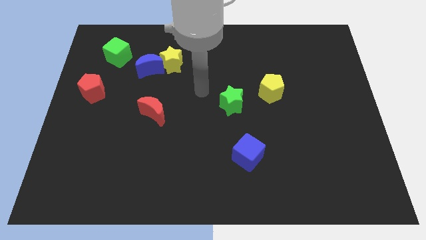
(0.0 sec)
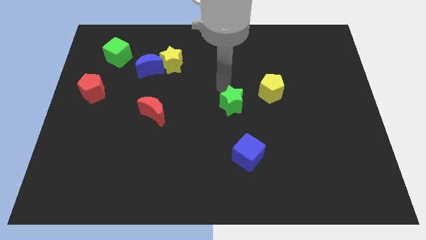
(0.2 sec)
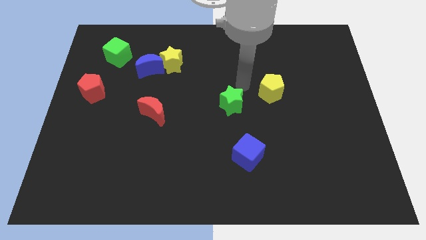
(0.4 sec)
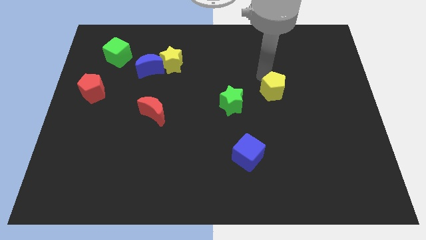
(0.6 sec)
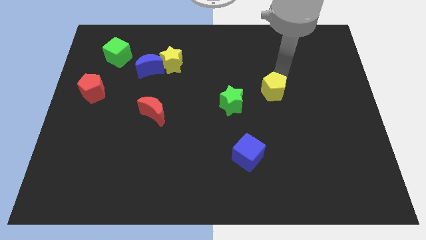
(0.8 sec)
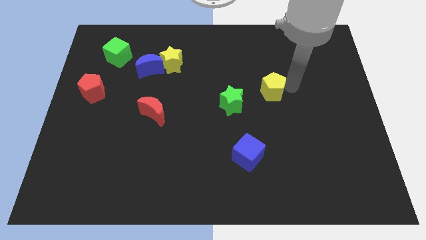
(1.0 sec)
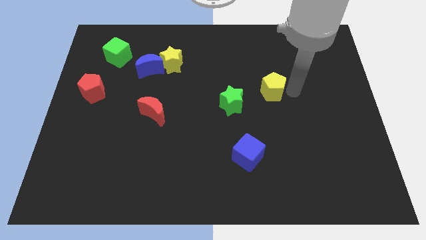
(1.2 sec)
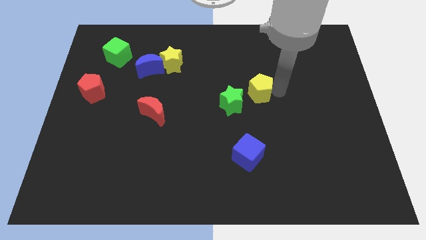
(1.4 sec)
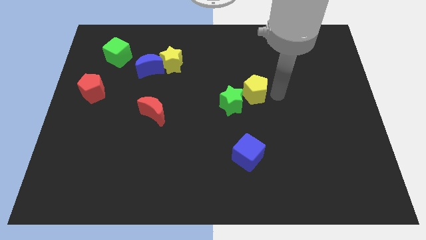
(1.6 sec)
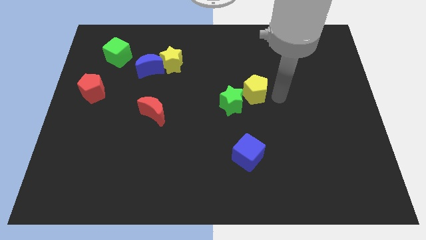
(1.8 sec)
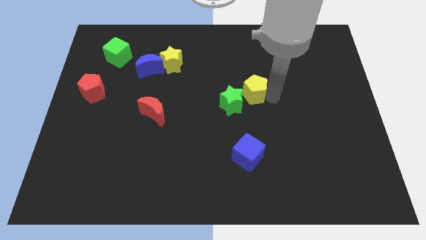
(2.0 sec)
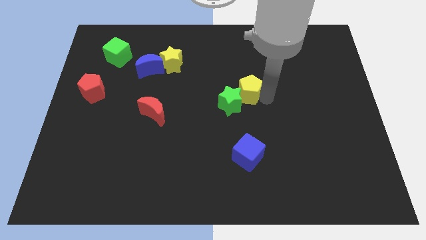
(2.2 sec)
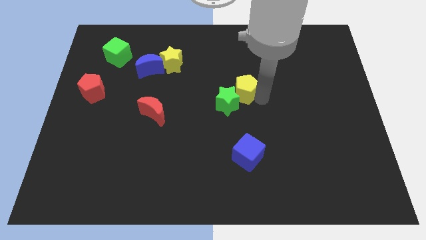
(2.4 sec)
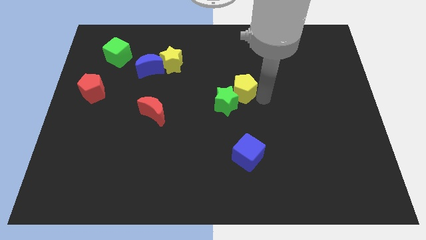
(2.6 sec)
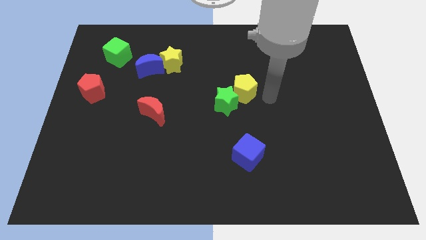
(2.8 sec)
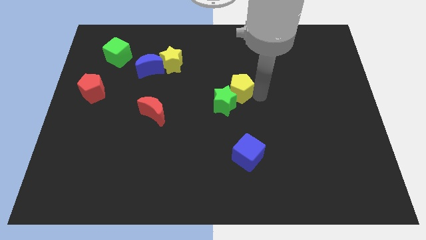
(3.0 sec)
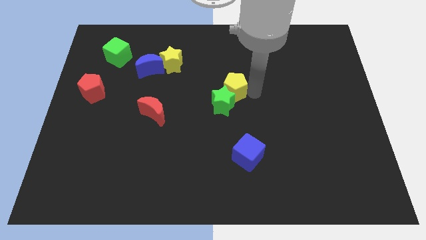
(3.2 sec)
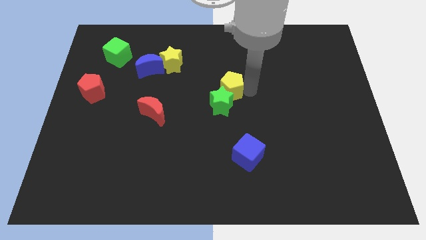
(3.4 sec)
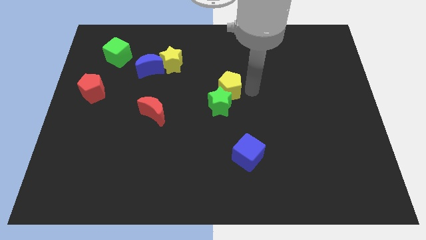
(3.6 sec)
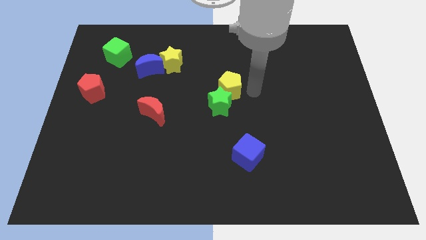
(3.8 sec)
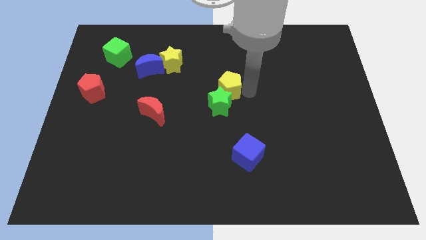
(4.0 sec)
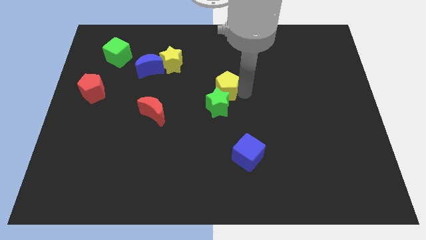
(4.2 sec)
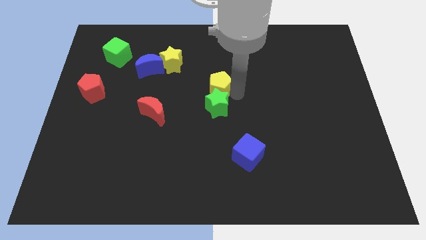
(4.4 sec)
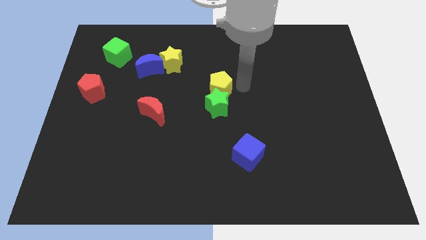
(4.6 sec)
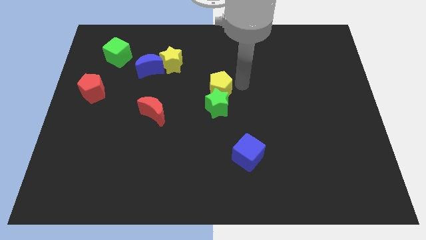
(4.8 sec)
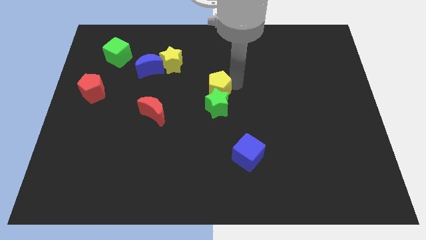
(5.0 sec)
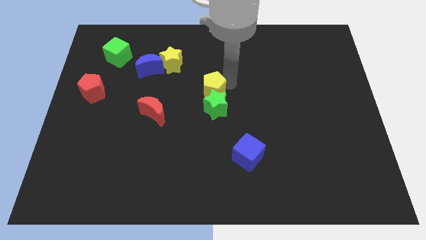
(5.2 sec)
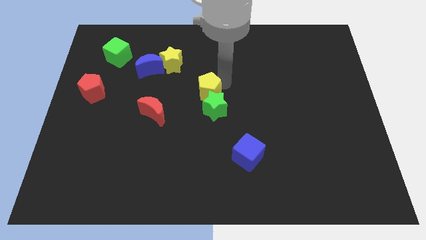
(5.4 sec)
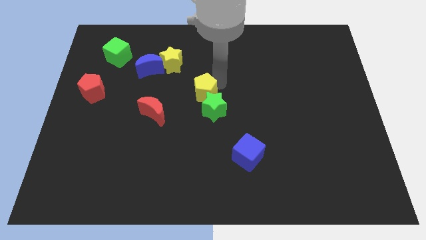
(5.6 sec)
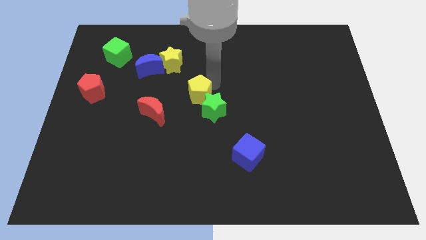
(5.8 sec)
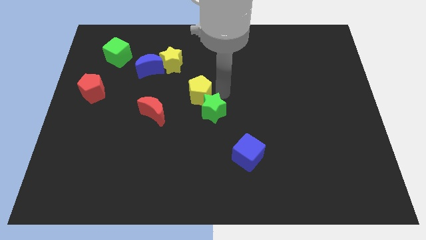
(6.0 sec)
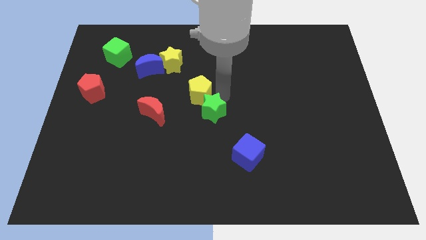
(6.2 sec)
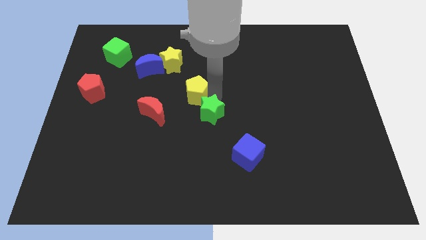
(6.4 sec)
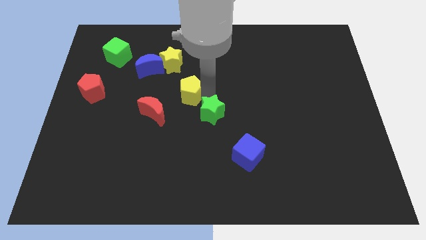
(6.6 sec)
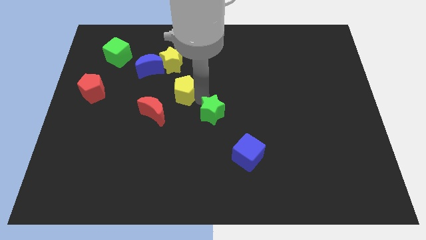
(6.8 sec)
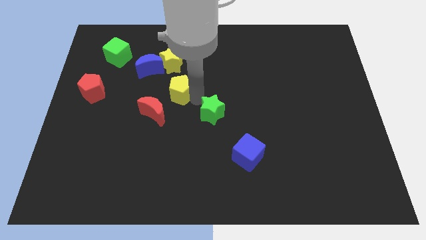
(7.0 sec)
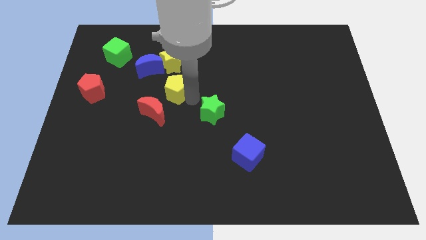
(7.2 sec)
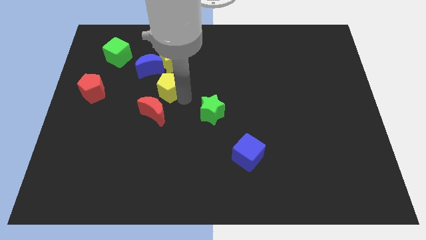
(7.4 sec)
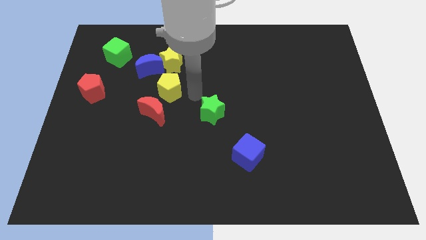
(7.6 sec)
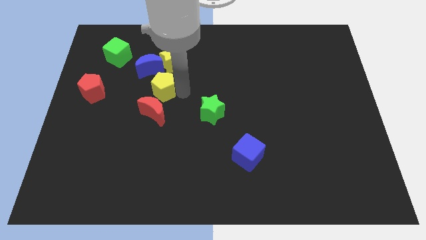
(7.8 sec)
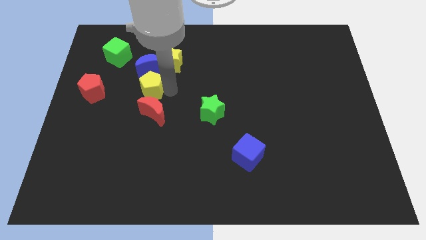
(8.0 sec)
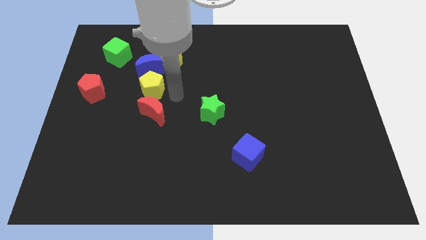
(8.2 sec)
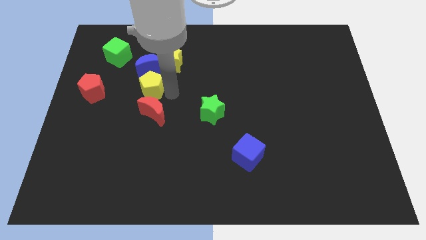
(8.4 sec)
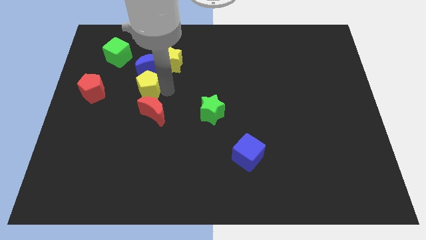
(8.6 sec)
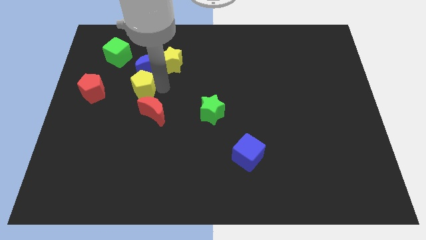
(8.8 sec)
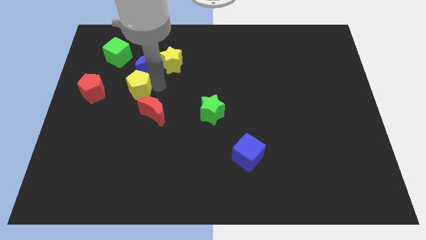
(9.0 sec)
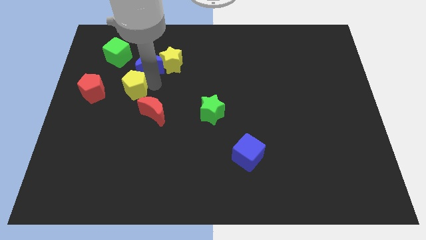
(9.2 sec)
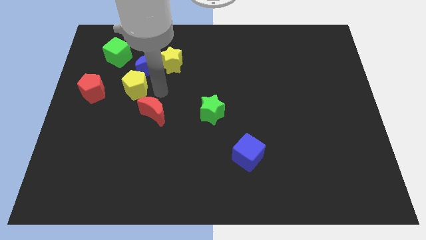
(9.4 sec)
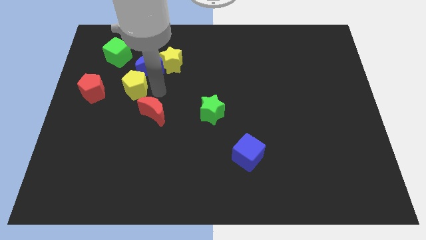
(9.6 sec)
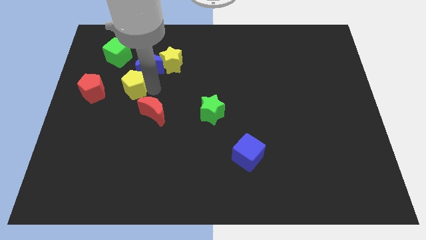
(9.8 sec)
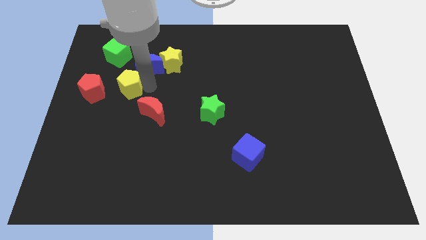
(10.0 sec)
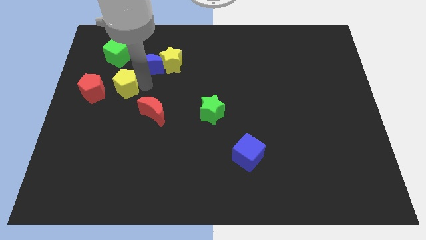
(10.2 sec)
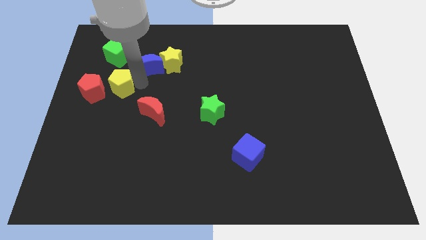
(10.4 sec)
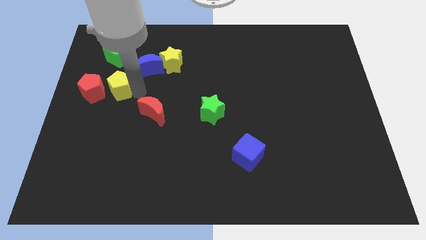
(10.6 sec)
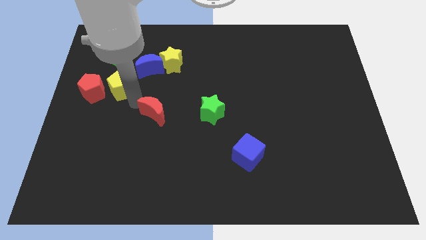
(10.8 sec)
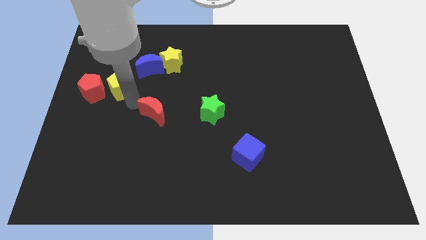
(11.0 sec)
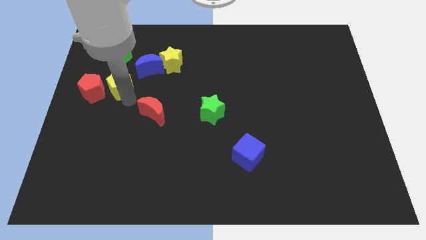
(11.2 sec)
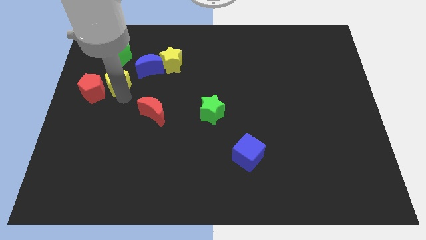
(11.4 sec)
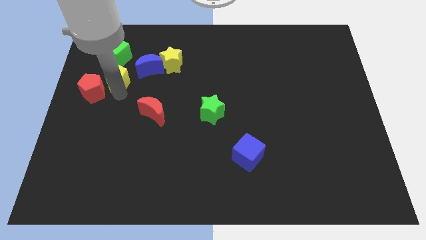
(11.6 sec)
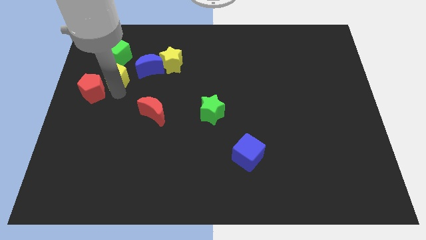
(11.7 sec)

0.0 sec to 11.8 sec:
move the yellow pentagon to the top side of the red pentagon

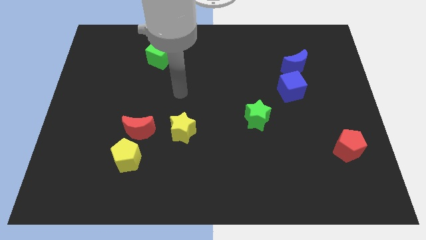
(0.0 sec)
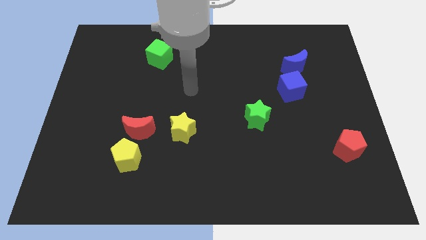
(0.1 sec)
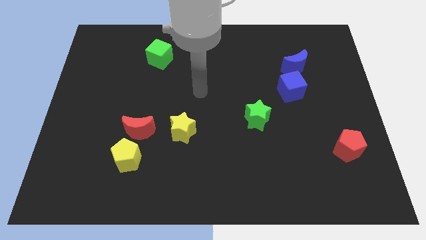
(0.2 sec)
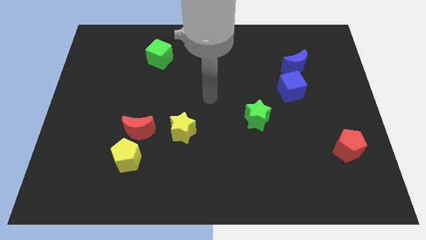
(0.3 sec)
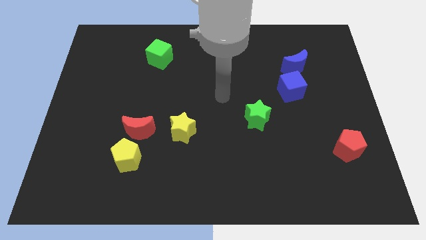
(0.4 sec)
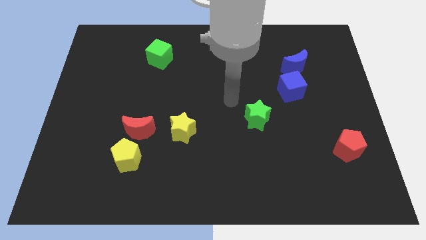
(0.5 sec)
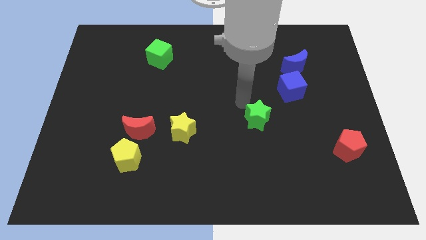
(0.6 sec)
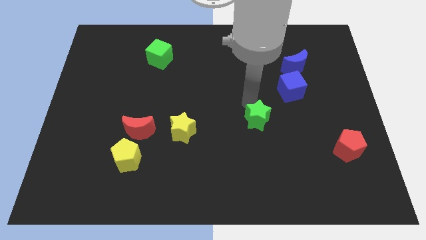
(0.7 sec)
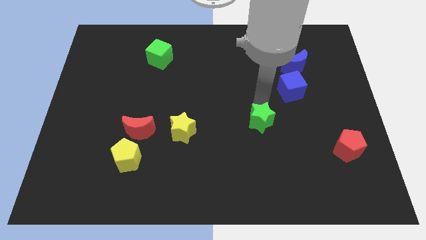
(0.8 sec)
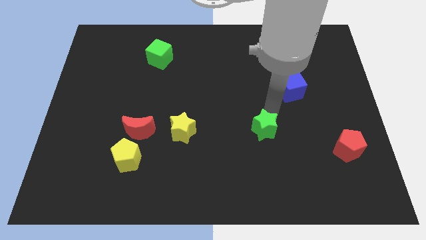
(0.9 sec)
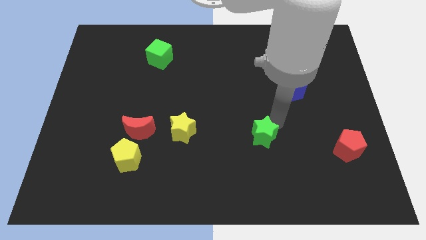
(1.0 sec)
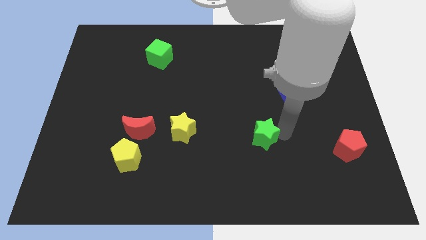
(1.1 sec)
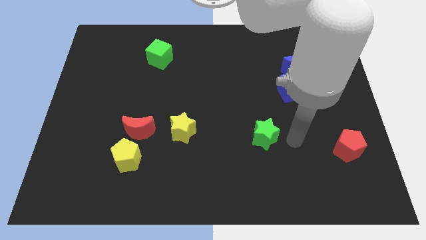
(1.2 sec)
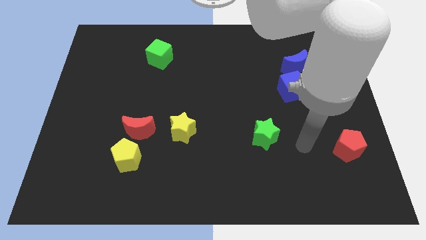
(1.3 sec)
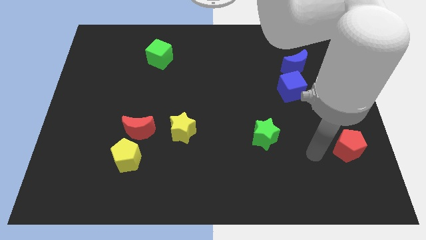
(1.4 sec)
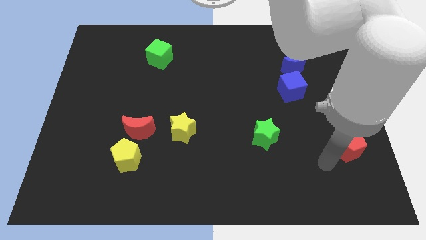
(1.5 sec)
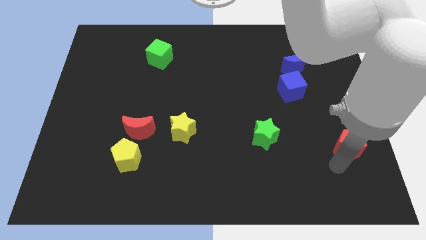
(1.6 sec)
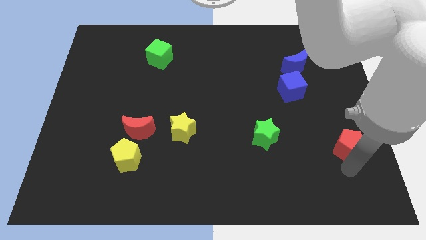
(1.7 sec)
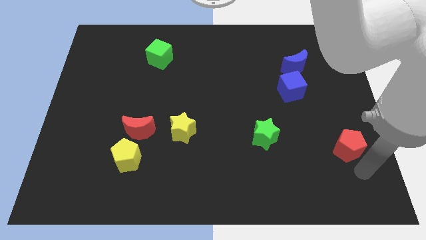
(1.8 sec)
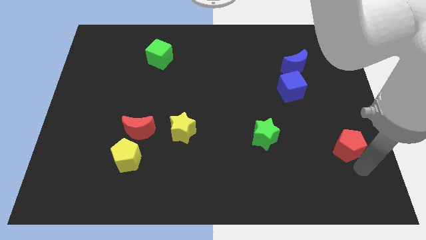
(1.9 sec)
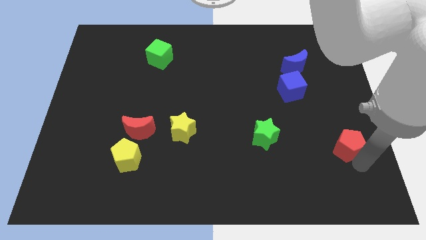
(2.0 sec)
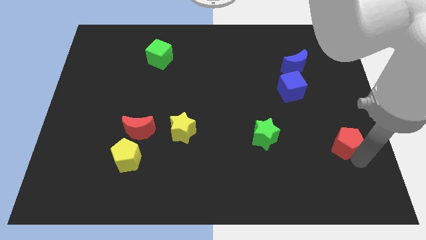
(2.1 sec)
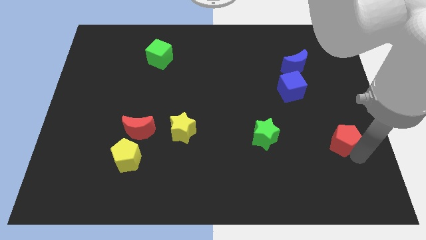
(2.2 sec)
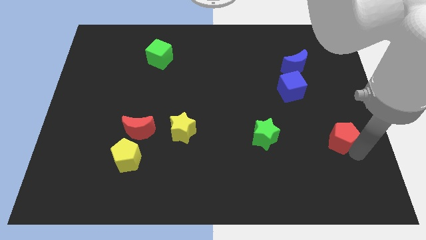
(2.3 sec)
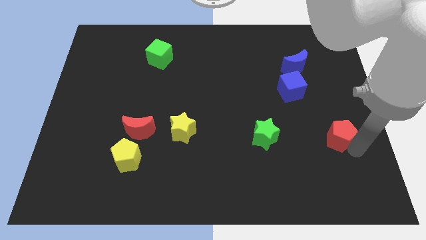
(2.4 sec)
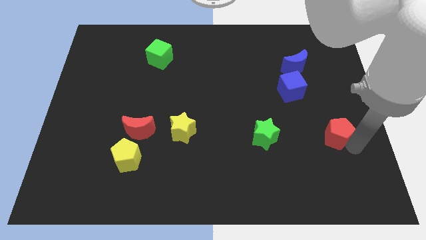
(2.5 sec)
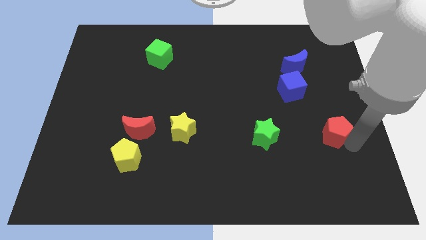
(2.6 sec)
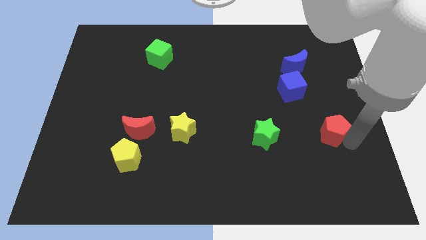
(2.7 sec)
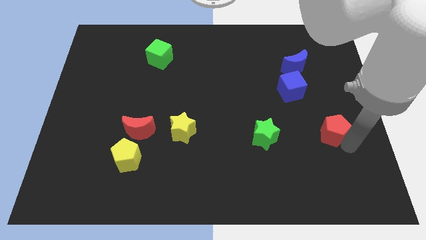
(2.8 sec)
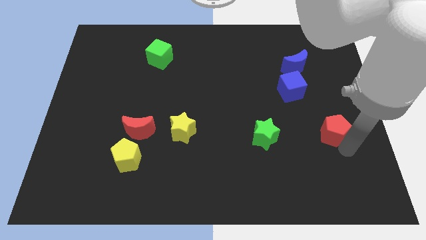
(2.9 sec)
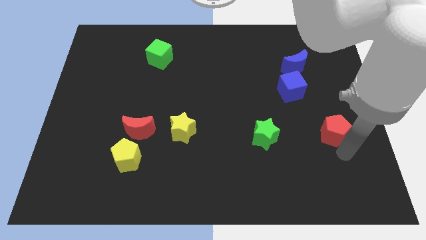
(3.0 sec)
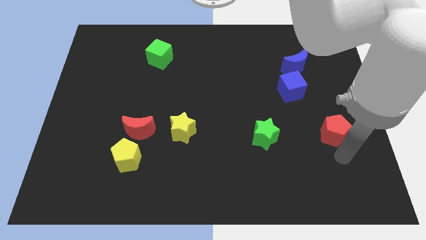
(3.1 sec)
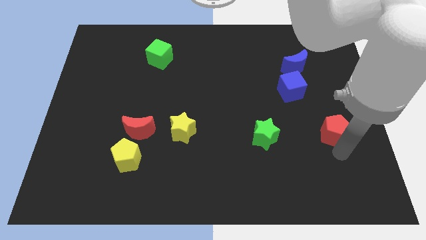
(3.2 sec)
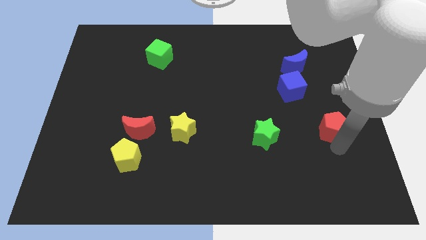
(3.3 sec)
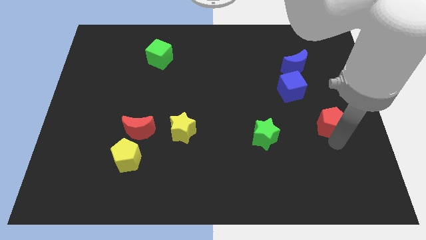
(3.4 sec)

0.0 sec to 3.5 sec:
push the red pentagon to the bottom right of the blue cube
